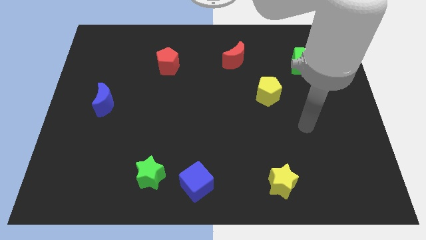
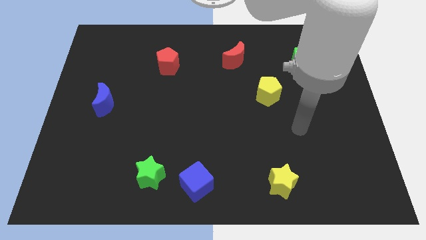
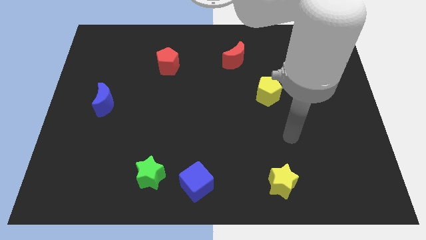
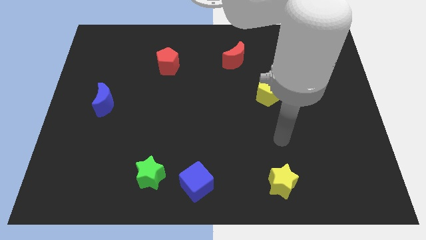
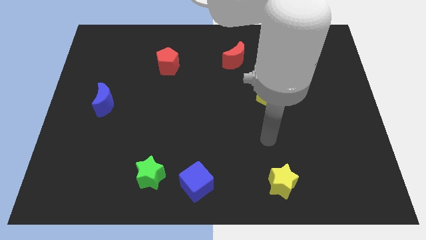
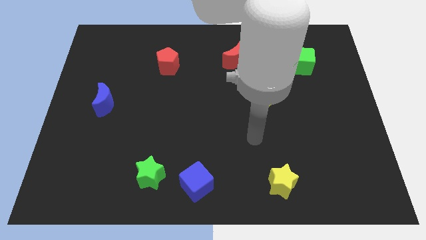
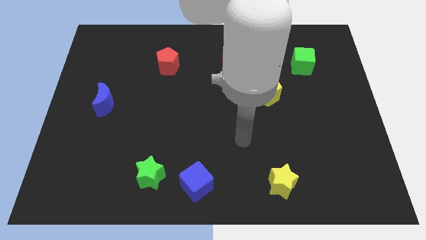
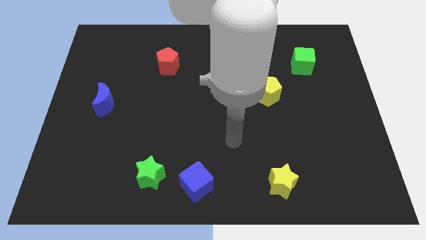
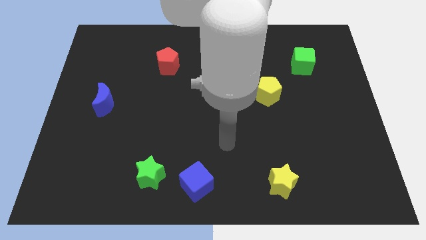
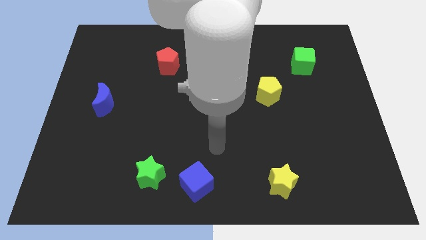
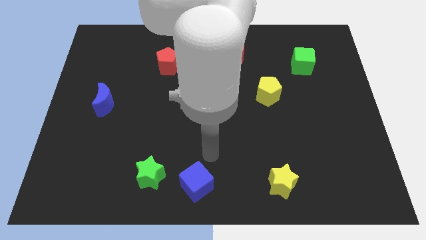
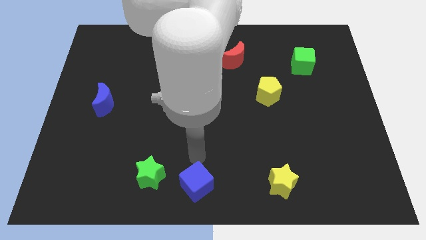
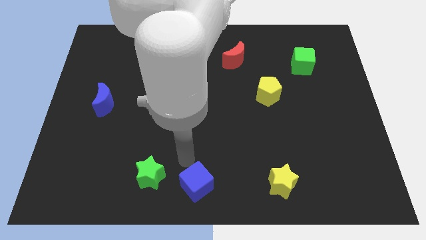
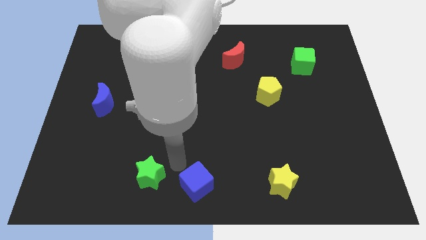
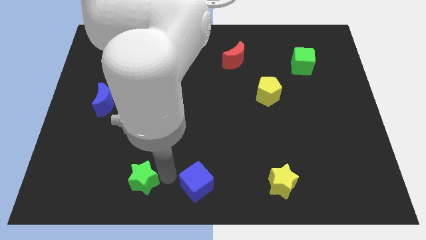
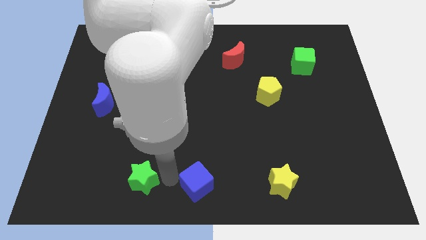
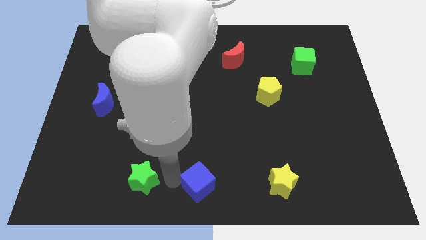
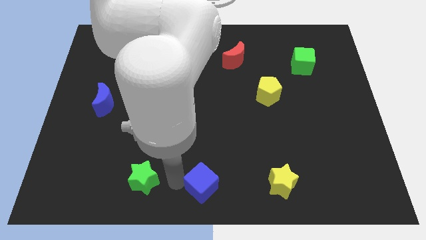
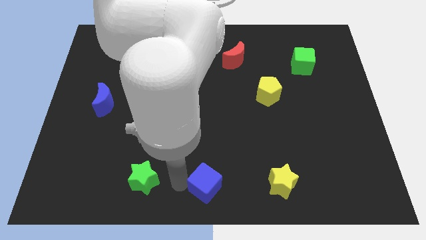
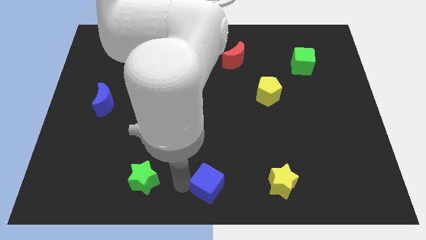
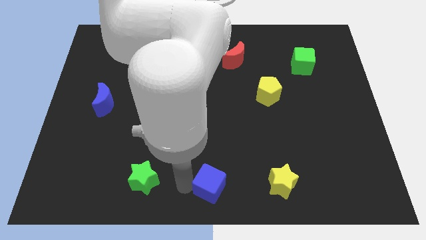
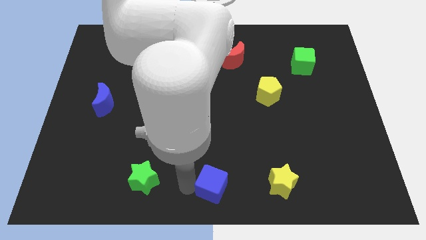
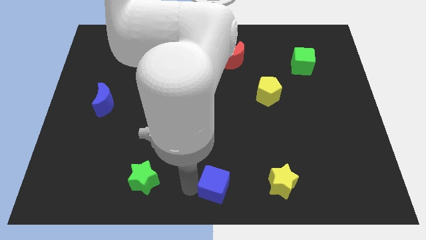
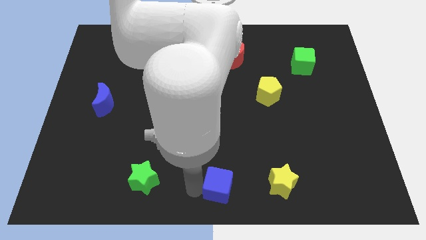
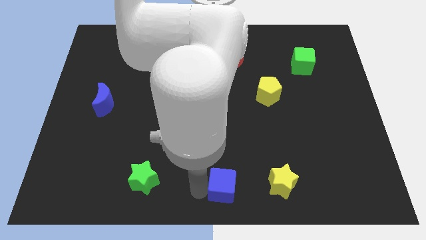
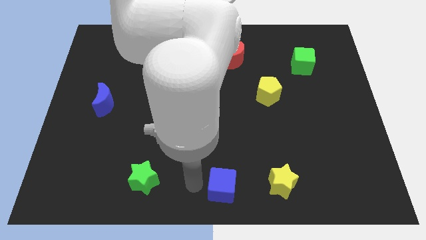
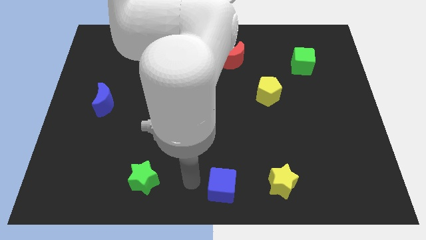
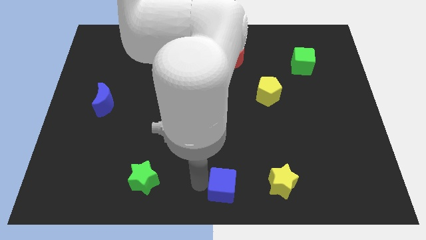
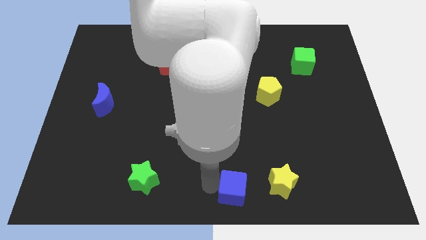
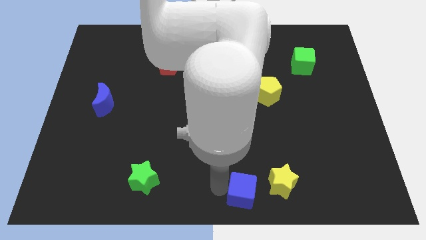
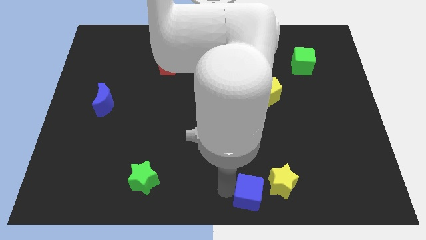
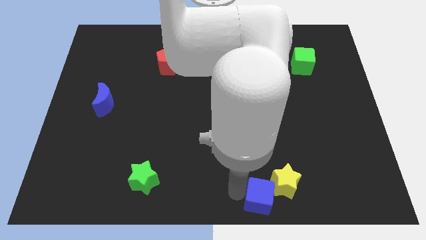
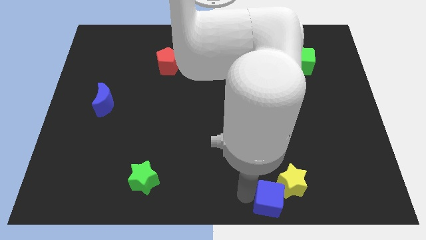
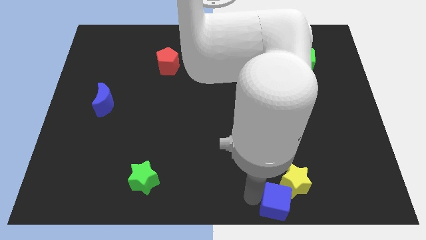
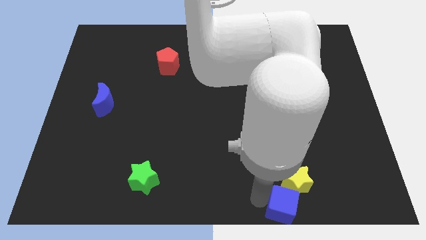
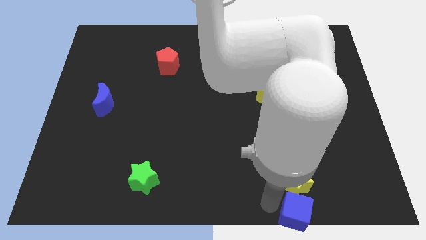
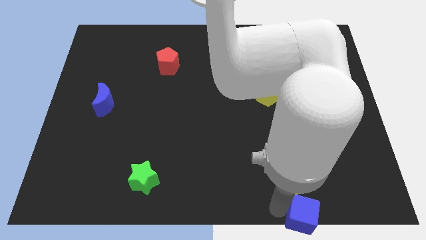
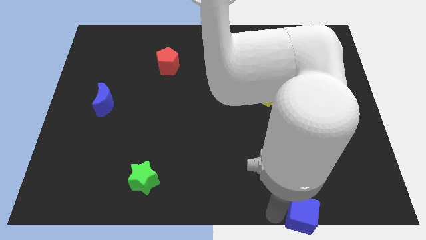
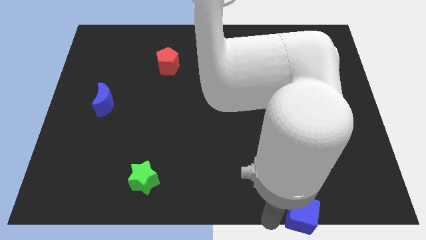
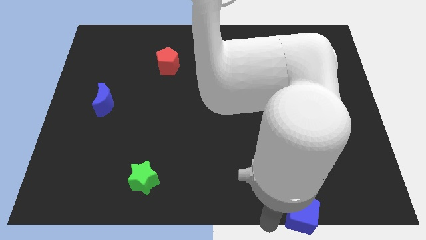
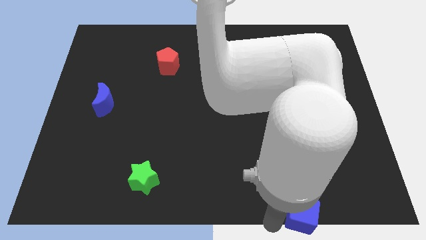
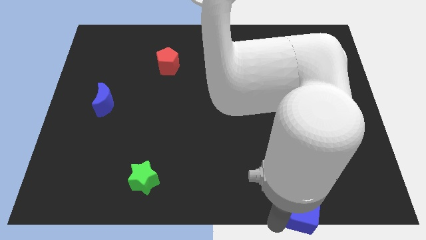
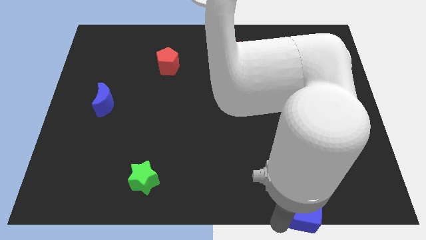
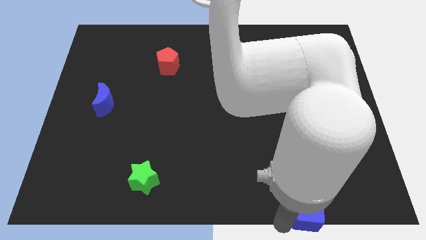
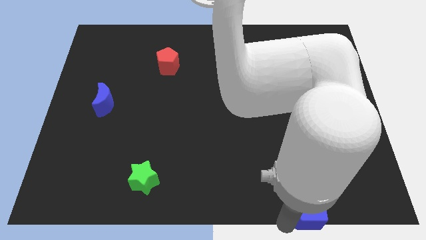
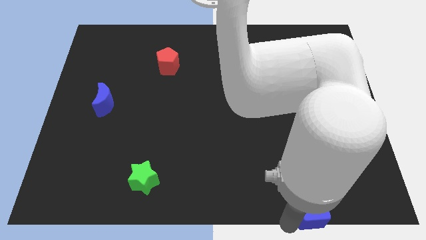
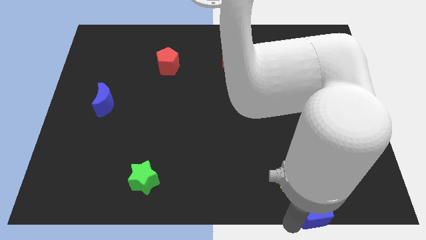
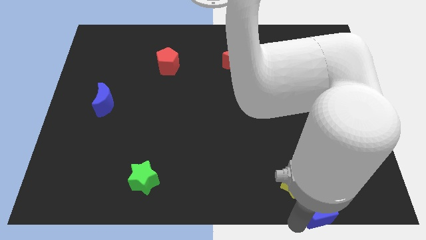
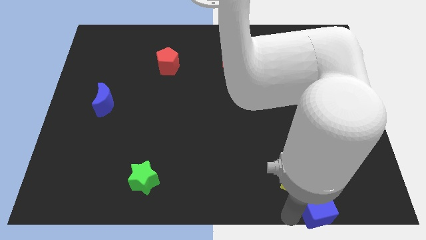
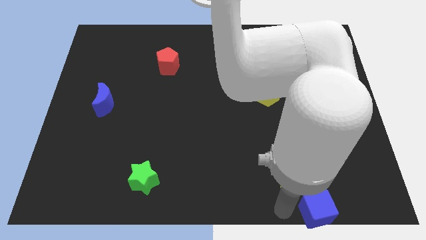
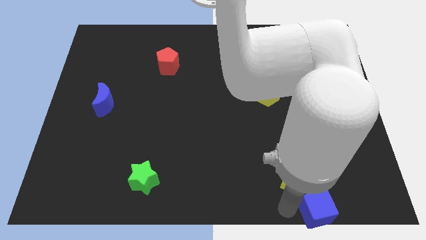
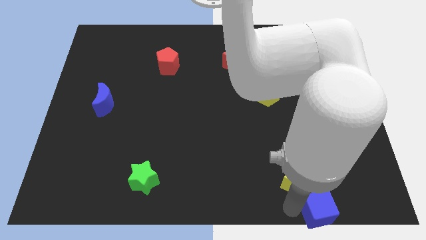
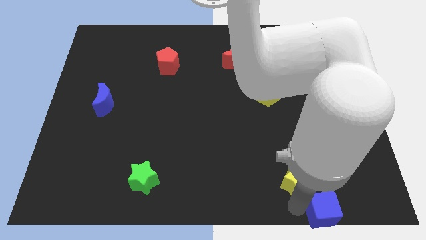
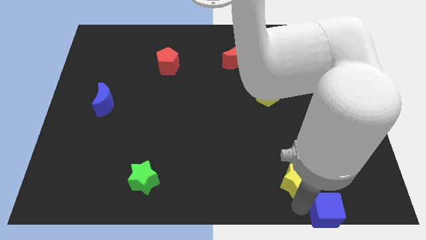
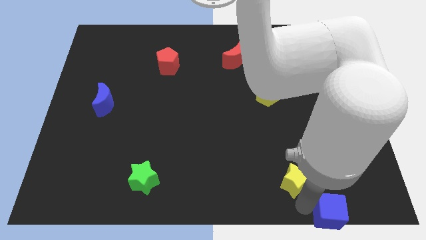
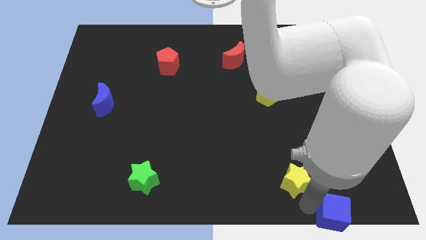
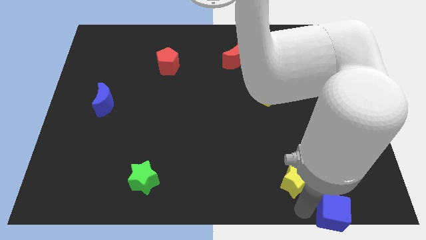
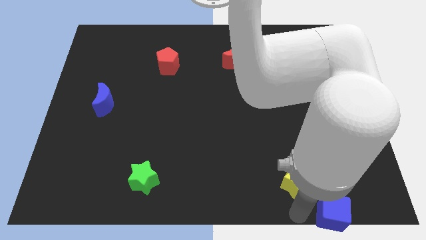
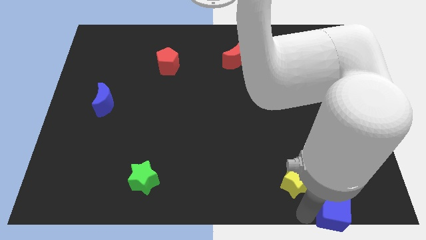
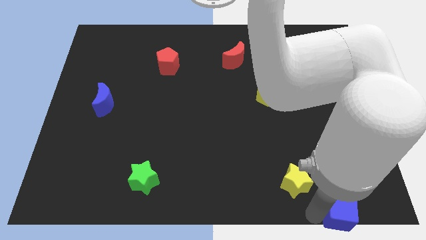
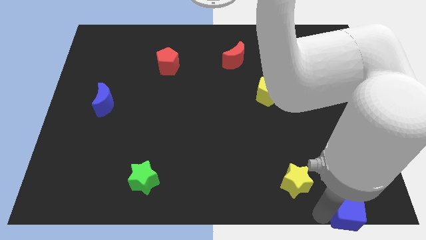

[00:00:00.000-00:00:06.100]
push the blue cube to the bottom right

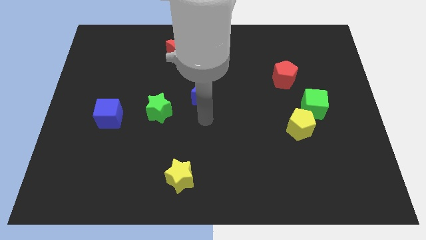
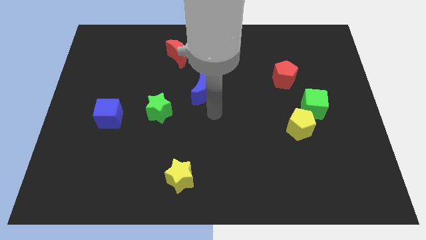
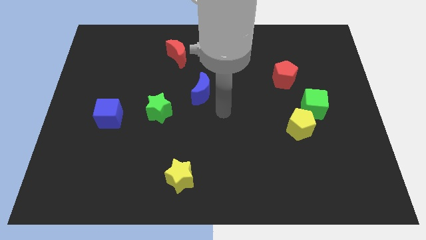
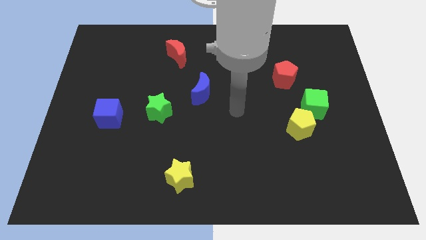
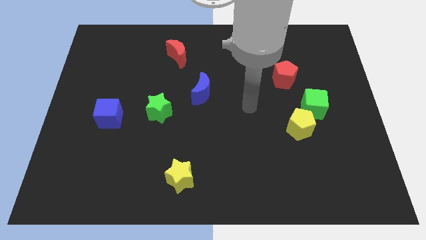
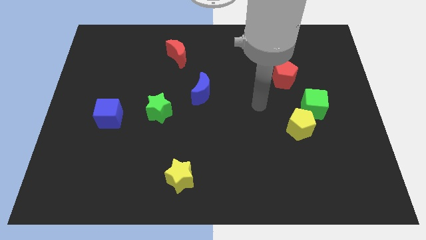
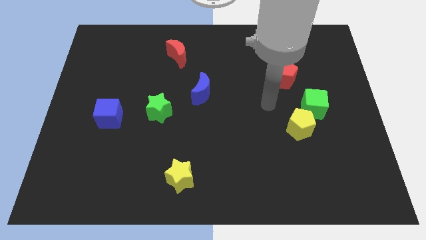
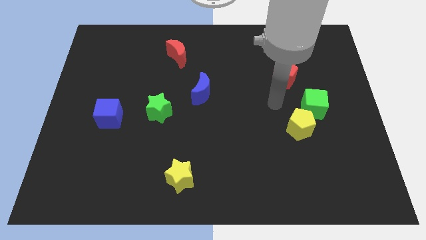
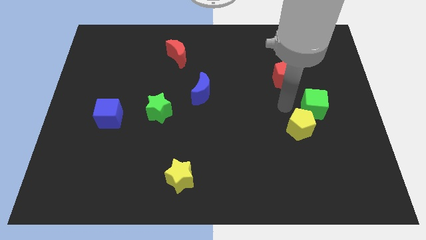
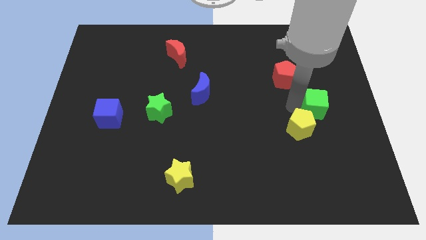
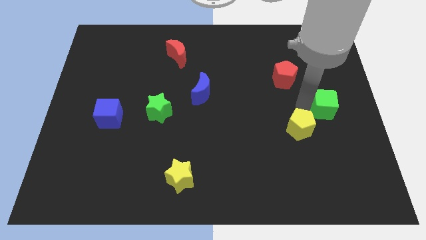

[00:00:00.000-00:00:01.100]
move the green cube to the center right
